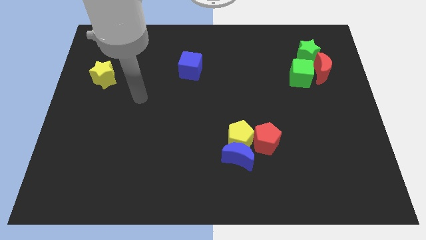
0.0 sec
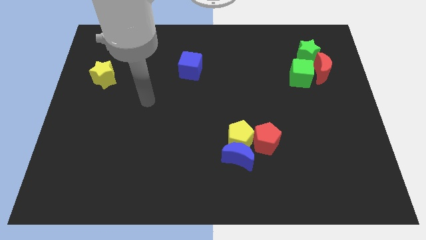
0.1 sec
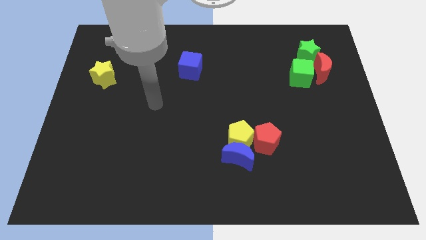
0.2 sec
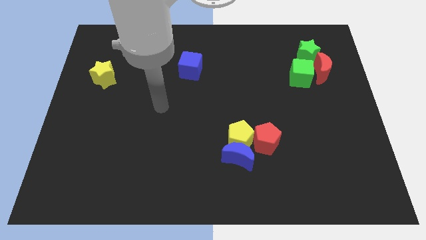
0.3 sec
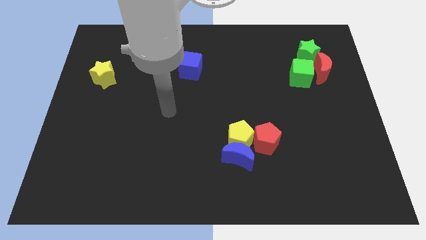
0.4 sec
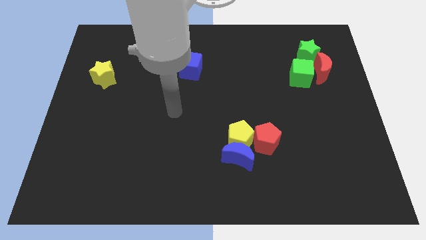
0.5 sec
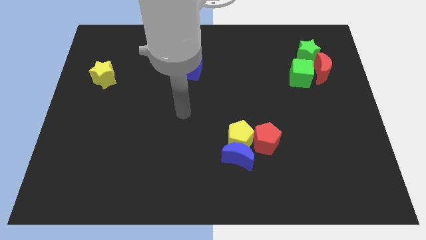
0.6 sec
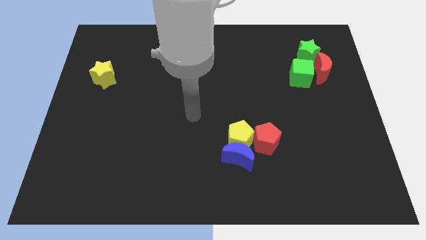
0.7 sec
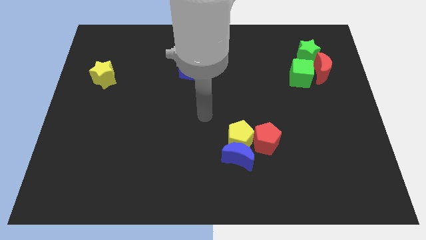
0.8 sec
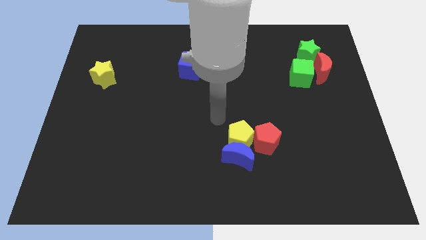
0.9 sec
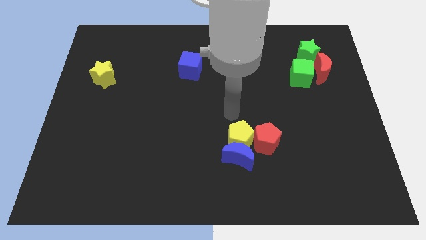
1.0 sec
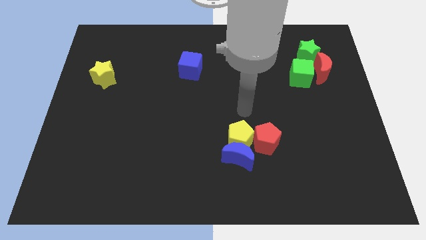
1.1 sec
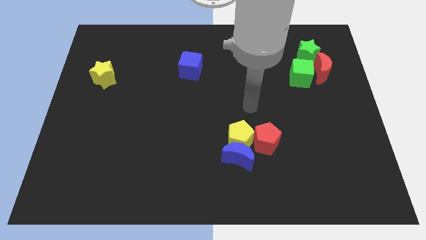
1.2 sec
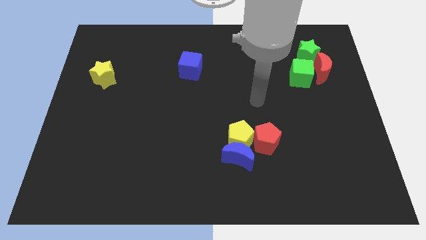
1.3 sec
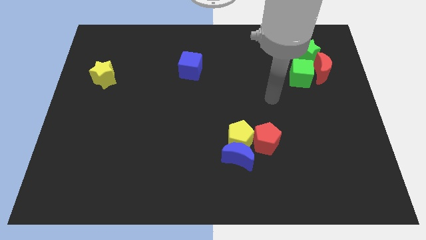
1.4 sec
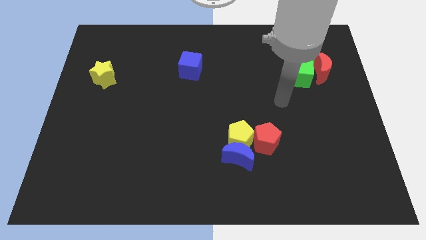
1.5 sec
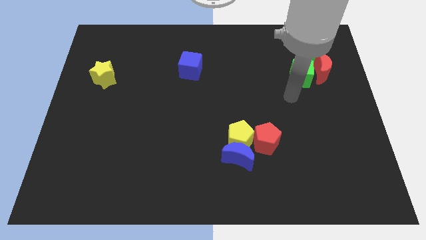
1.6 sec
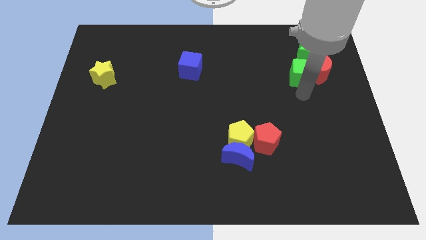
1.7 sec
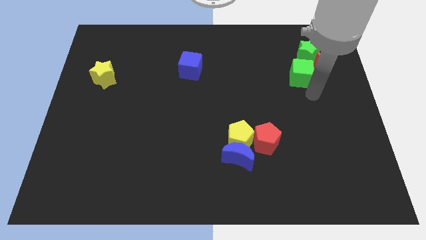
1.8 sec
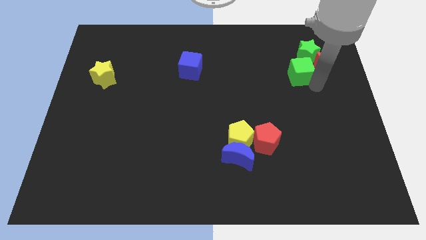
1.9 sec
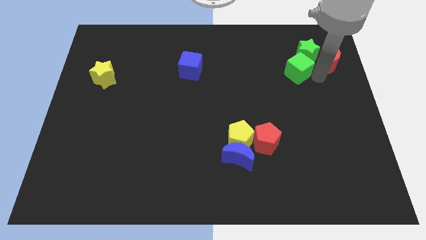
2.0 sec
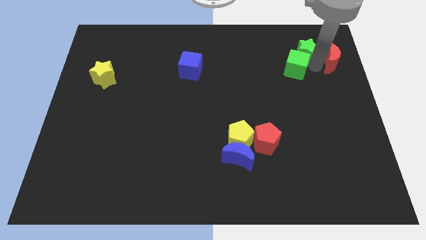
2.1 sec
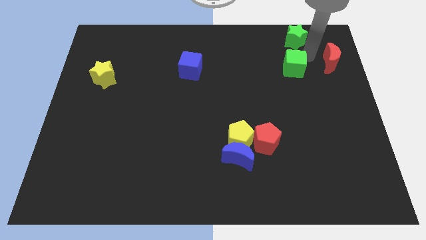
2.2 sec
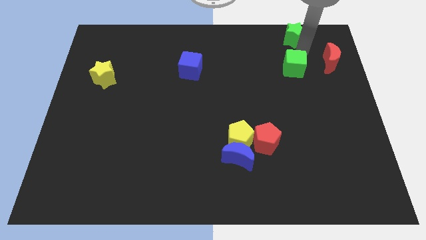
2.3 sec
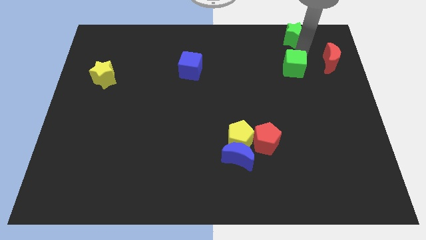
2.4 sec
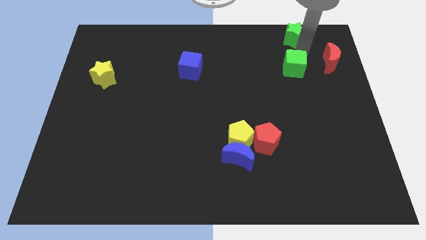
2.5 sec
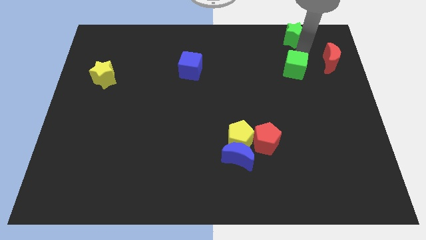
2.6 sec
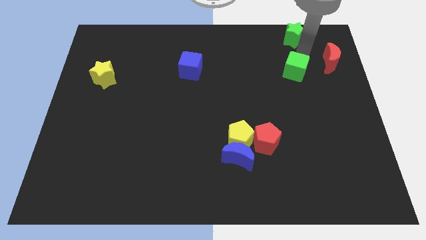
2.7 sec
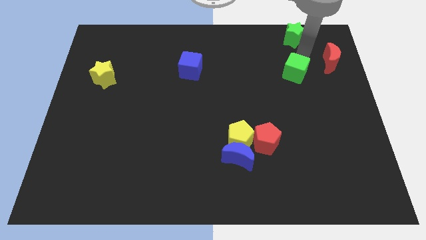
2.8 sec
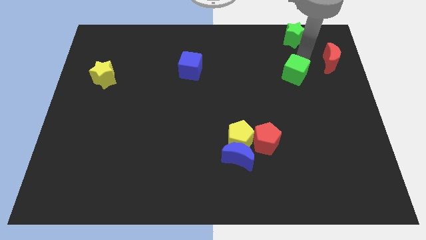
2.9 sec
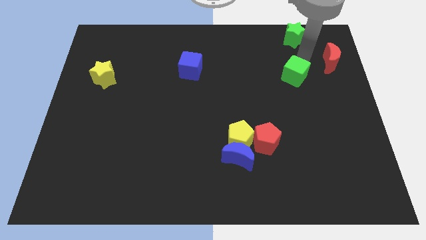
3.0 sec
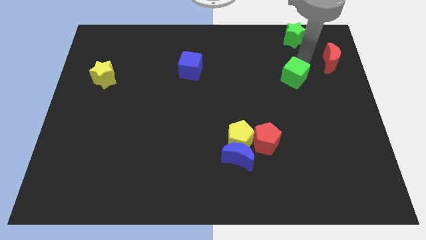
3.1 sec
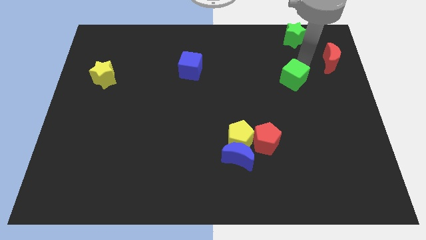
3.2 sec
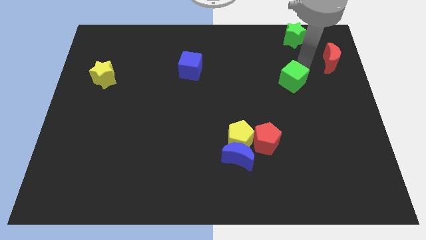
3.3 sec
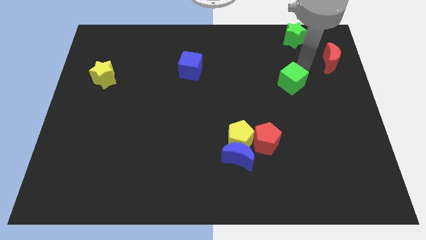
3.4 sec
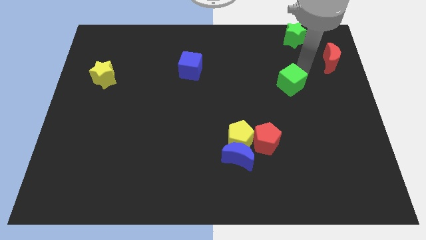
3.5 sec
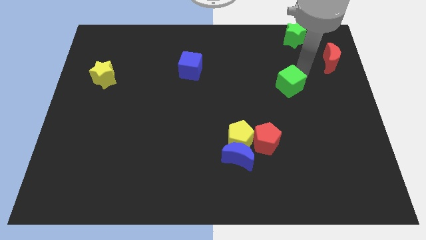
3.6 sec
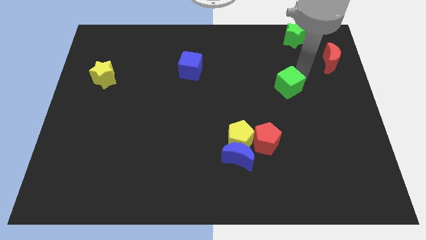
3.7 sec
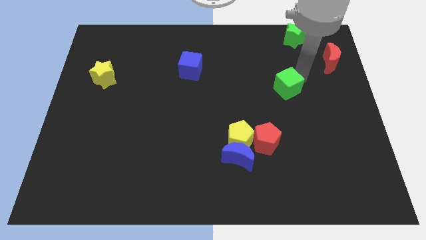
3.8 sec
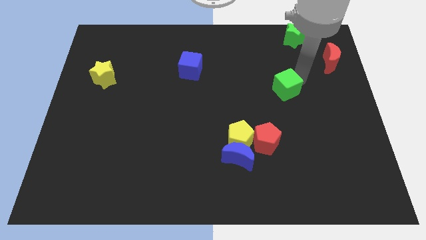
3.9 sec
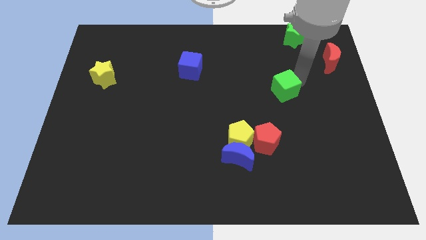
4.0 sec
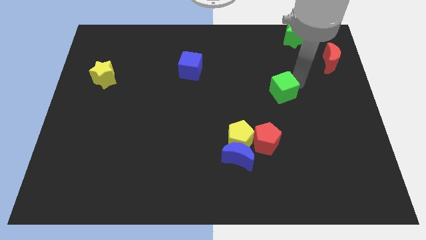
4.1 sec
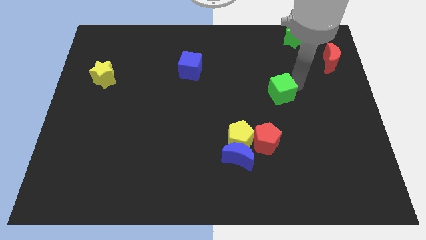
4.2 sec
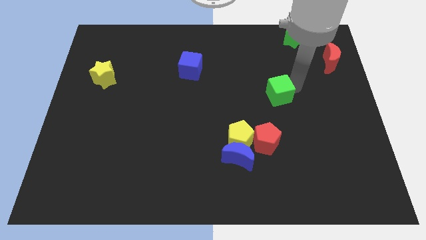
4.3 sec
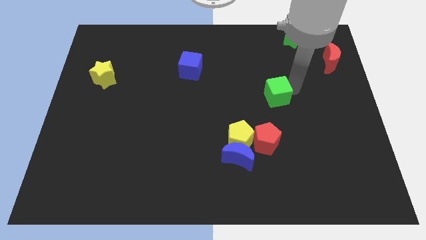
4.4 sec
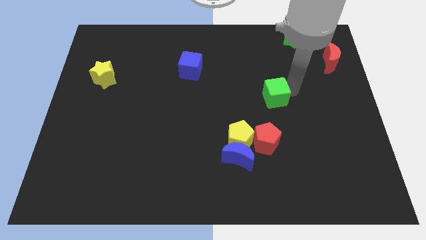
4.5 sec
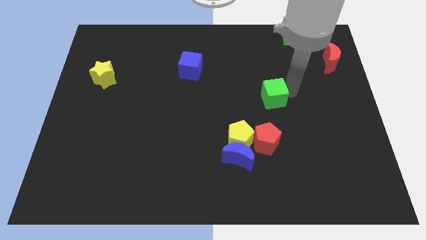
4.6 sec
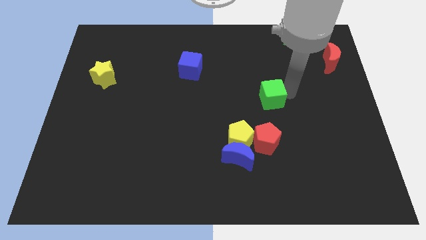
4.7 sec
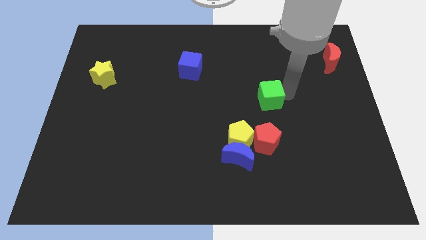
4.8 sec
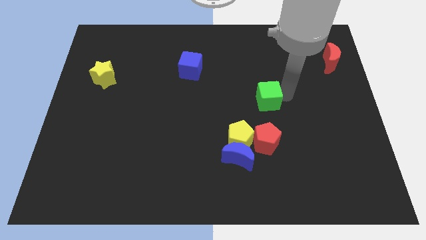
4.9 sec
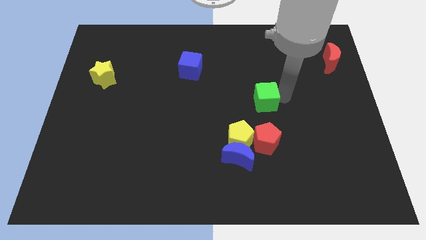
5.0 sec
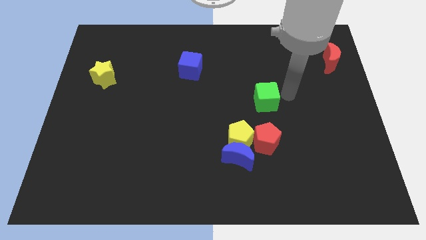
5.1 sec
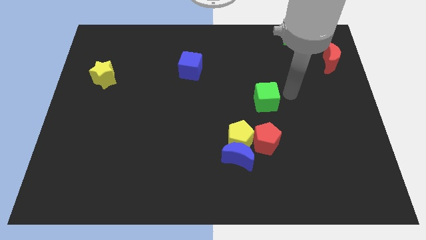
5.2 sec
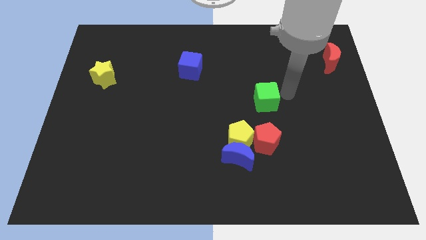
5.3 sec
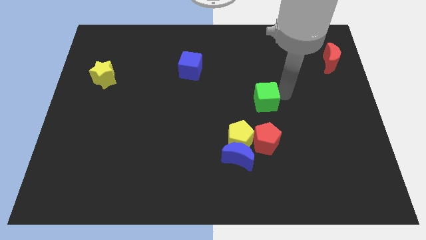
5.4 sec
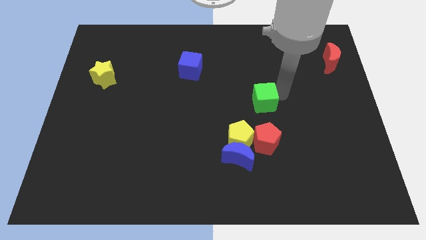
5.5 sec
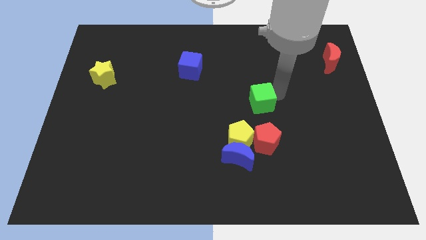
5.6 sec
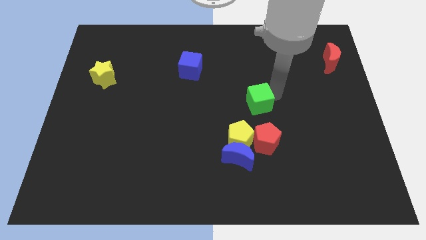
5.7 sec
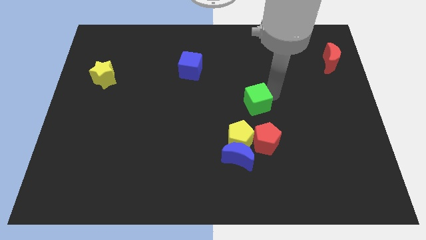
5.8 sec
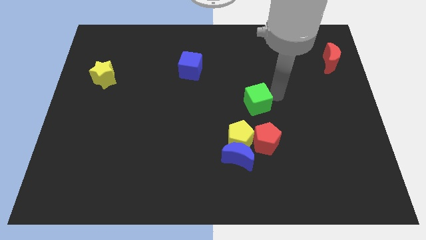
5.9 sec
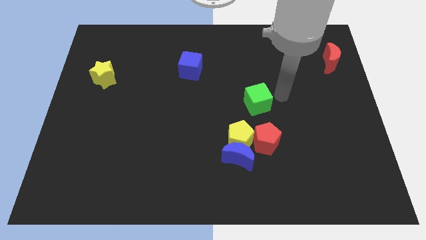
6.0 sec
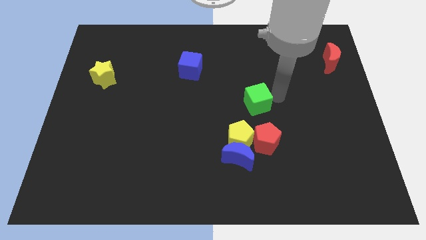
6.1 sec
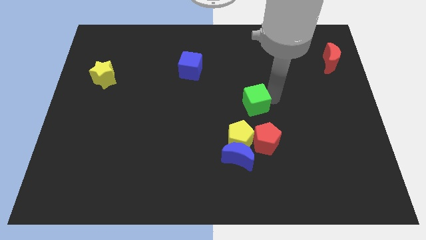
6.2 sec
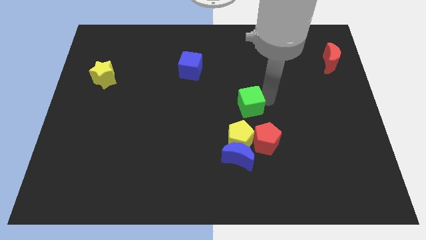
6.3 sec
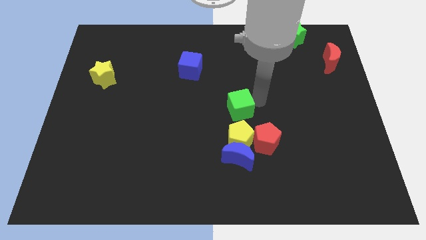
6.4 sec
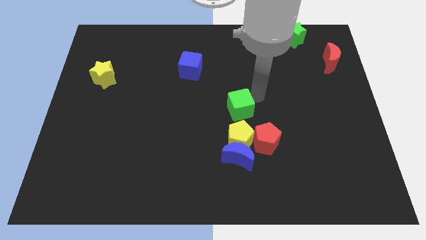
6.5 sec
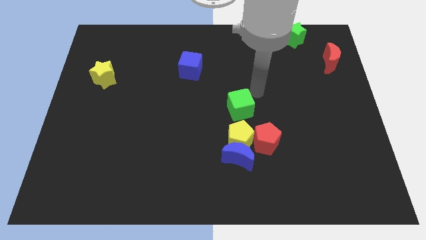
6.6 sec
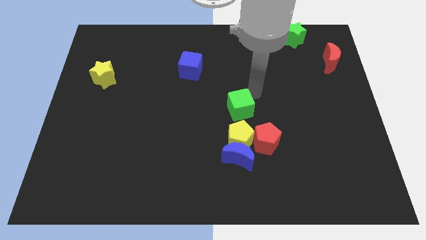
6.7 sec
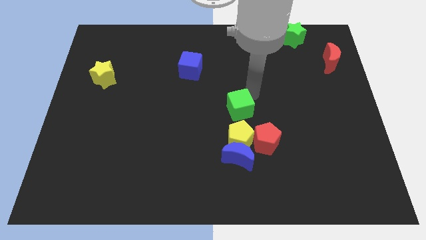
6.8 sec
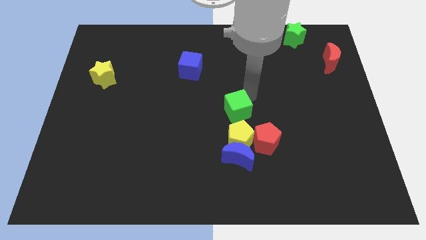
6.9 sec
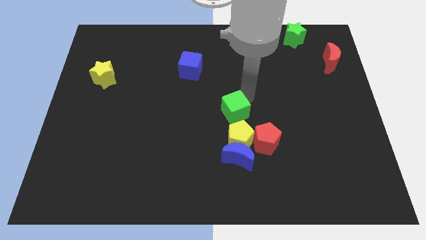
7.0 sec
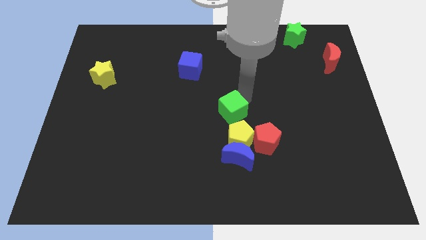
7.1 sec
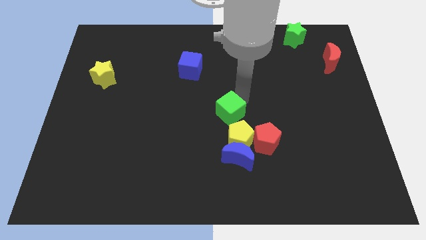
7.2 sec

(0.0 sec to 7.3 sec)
move the green cube down and left

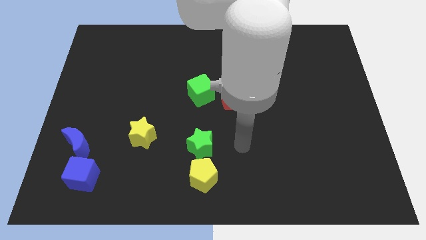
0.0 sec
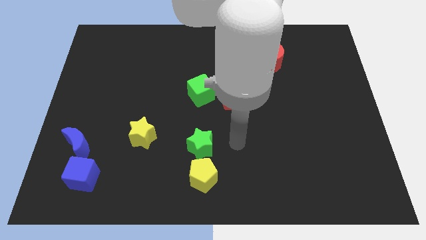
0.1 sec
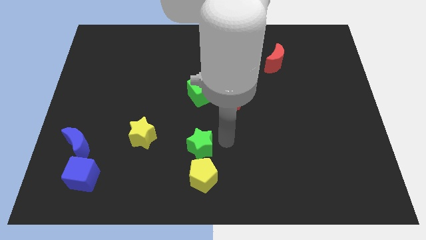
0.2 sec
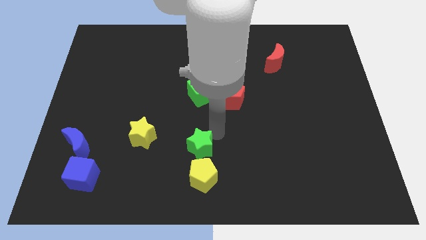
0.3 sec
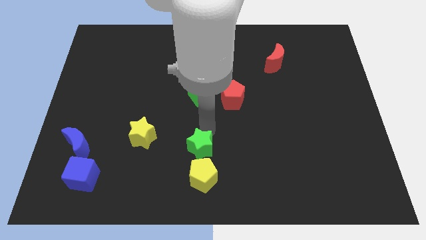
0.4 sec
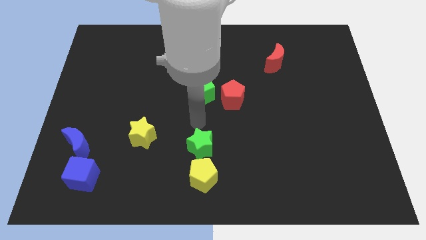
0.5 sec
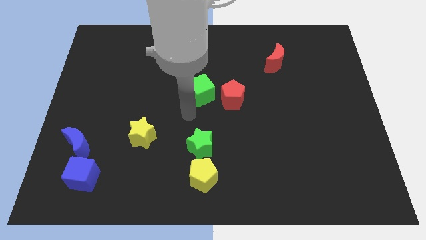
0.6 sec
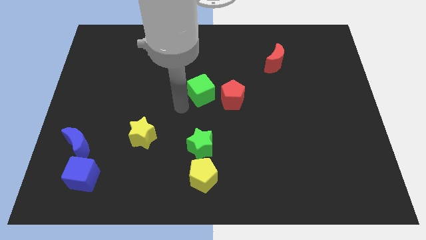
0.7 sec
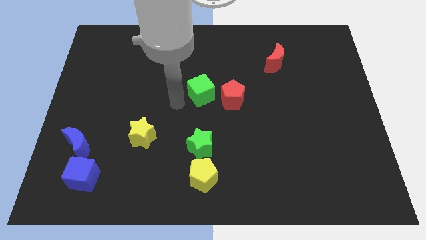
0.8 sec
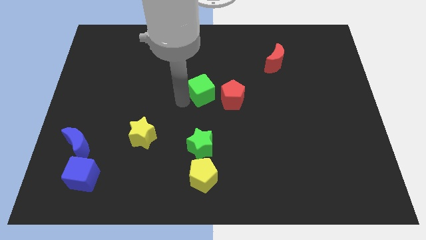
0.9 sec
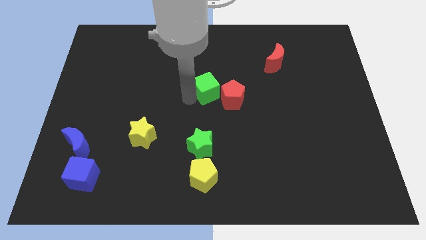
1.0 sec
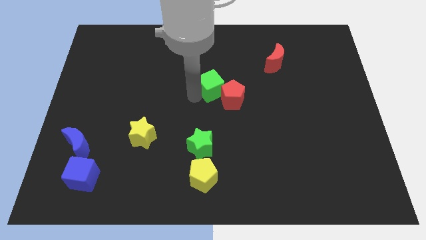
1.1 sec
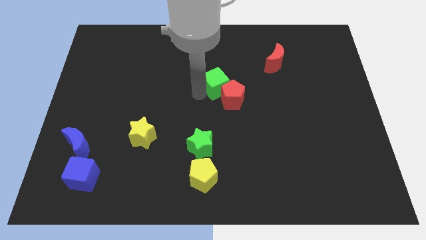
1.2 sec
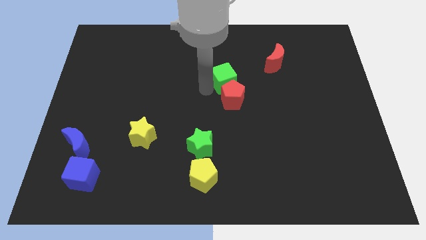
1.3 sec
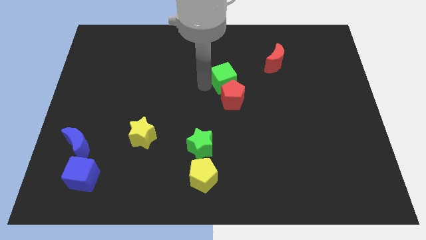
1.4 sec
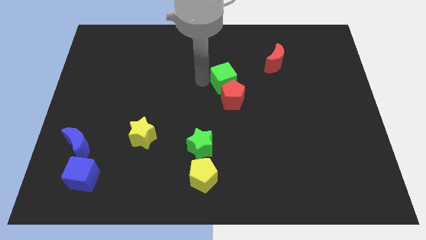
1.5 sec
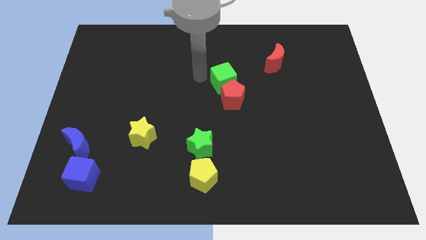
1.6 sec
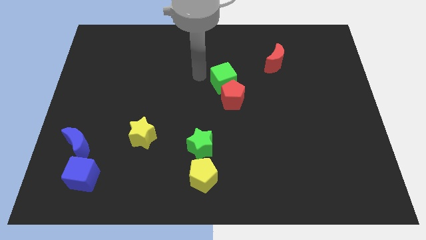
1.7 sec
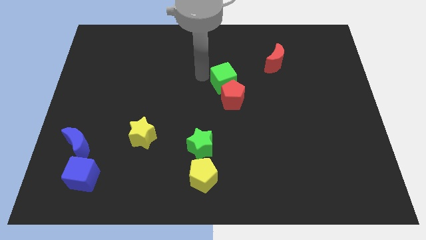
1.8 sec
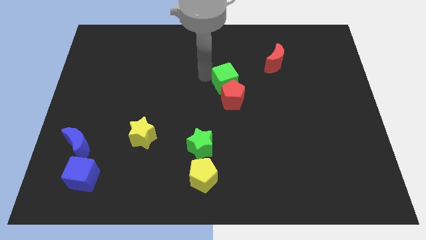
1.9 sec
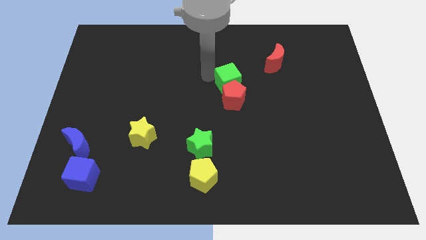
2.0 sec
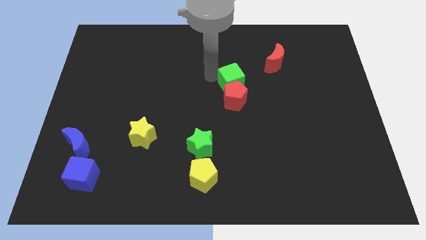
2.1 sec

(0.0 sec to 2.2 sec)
push the green cube to the right slightly
